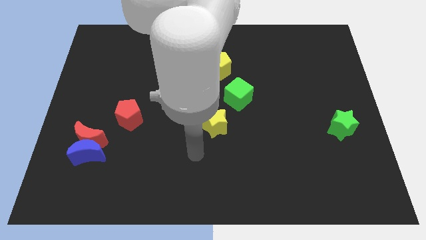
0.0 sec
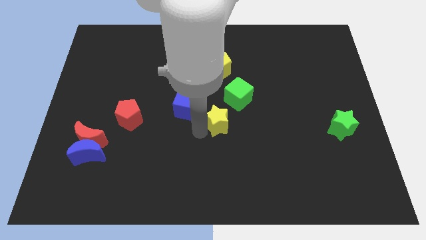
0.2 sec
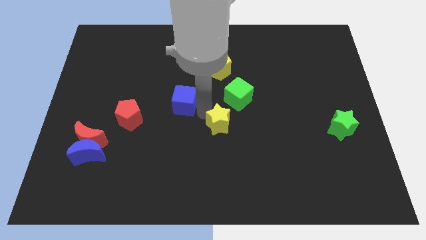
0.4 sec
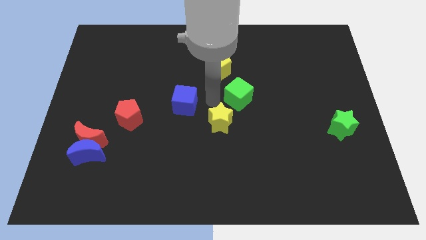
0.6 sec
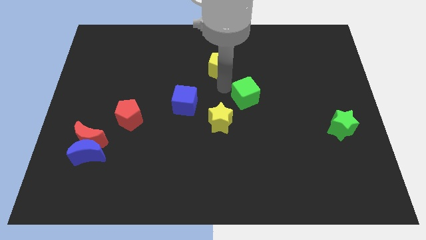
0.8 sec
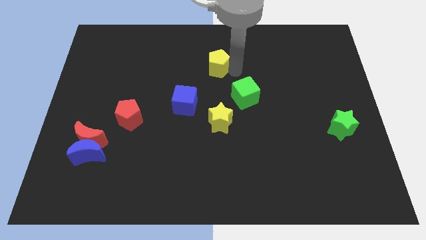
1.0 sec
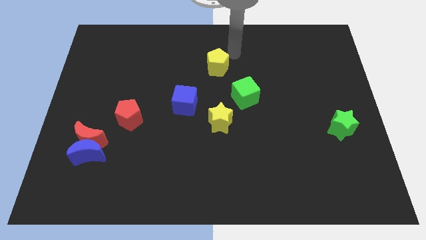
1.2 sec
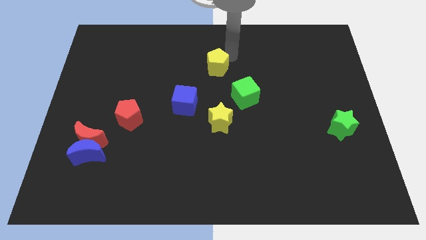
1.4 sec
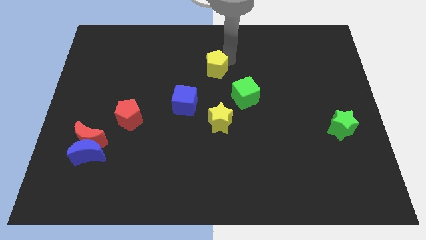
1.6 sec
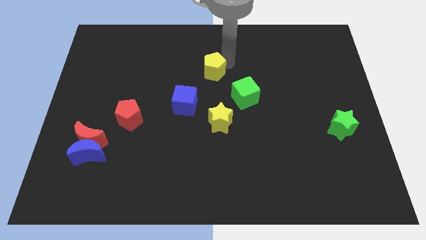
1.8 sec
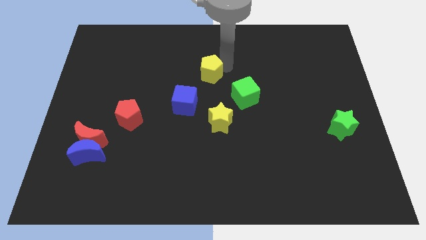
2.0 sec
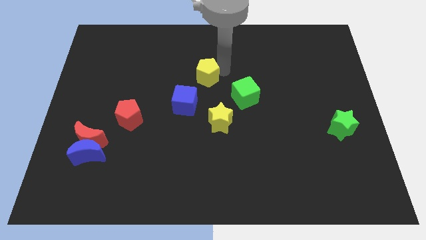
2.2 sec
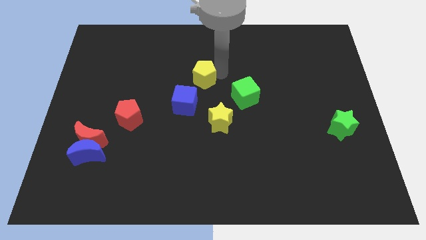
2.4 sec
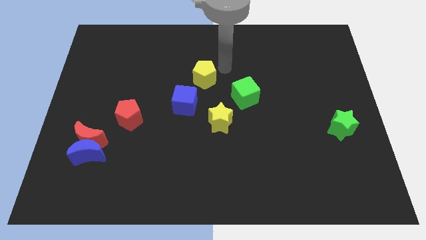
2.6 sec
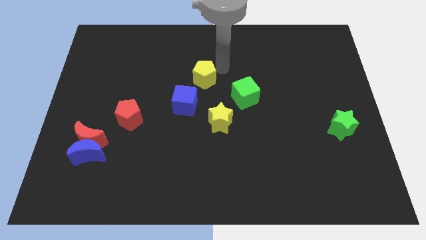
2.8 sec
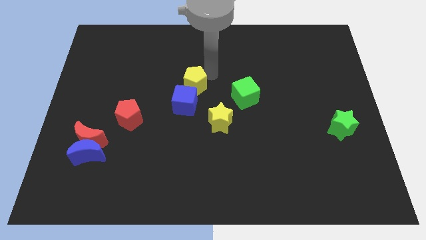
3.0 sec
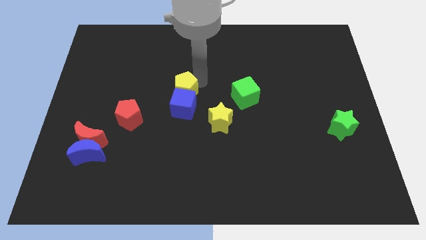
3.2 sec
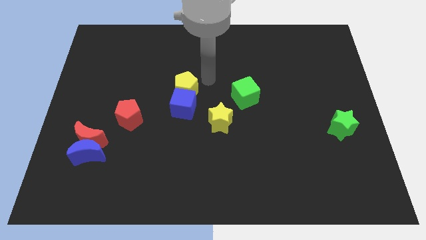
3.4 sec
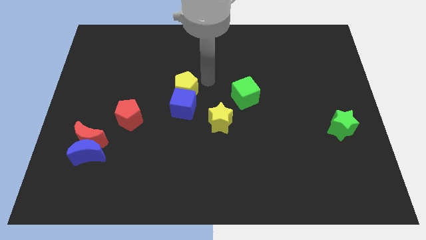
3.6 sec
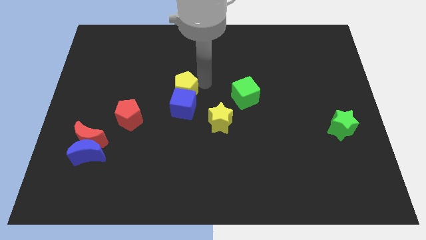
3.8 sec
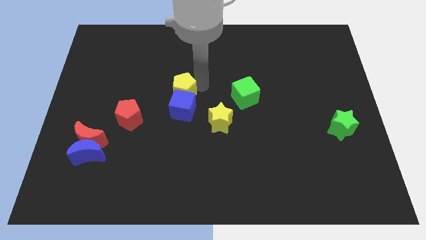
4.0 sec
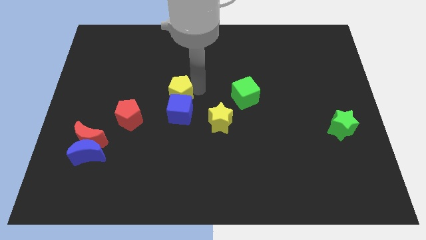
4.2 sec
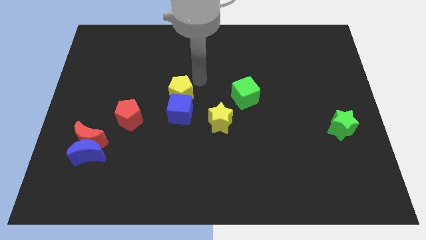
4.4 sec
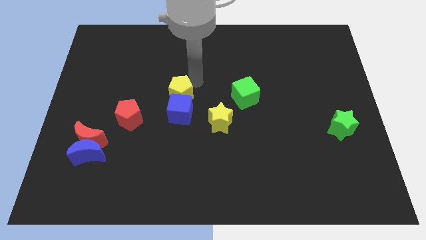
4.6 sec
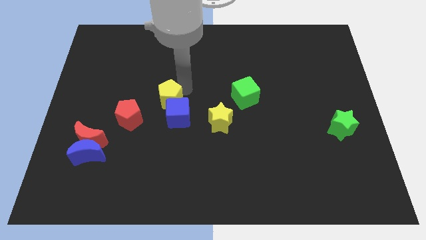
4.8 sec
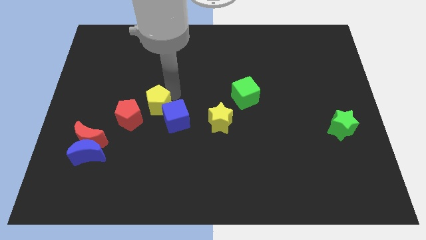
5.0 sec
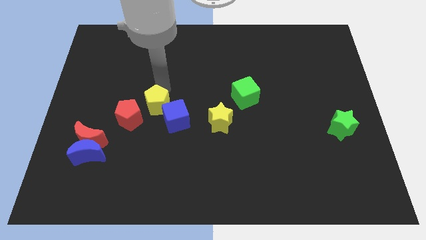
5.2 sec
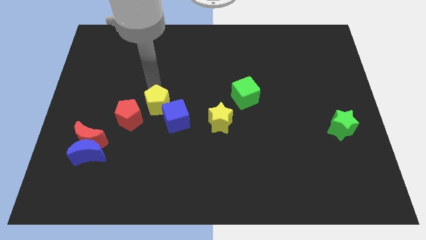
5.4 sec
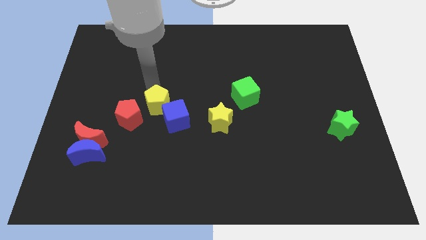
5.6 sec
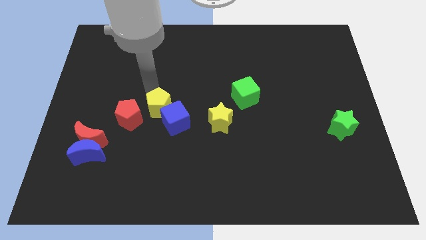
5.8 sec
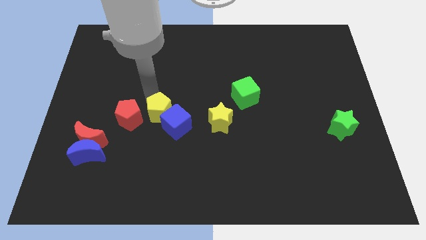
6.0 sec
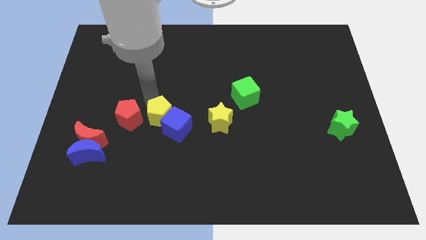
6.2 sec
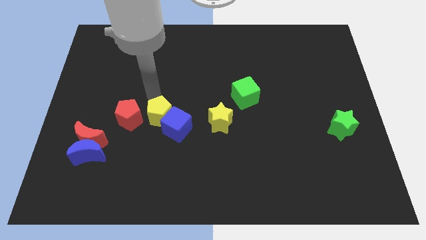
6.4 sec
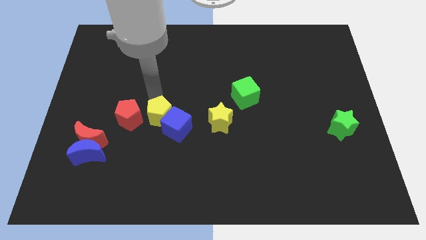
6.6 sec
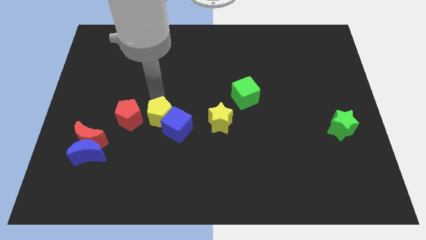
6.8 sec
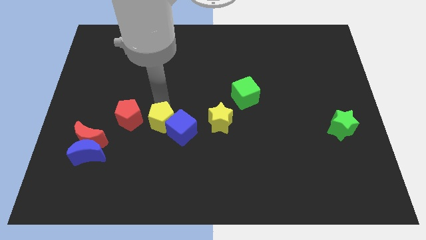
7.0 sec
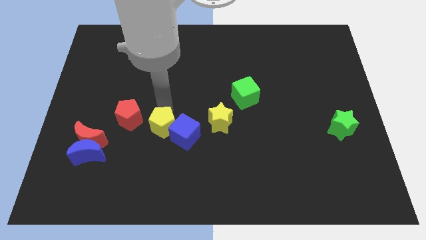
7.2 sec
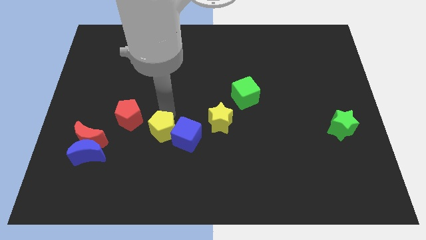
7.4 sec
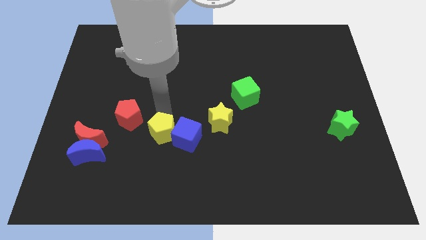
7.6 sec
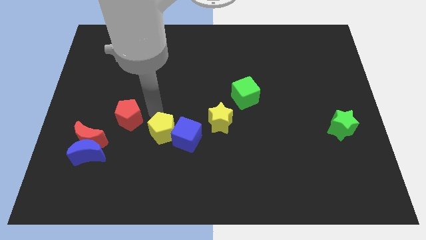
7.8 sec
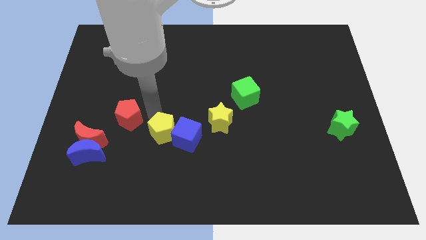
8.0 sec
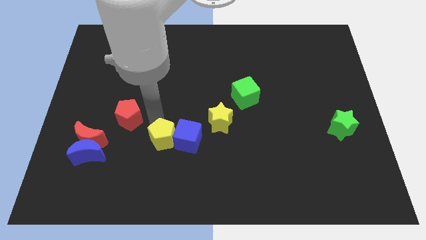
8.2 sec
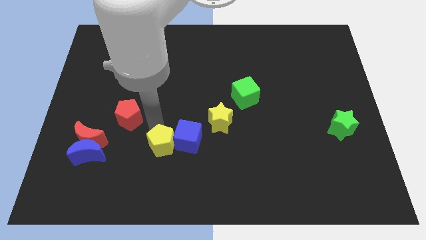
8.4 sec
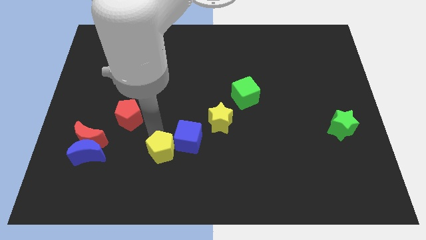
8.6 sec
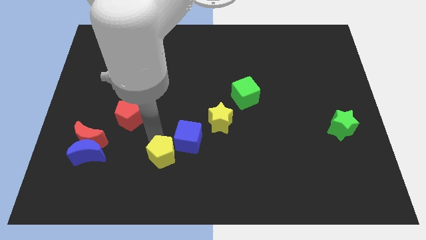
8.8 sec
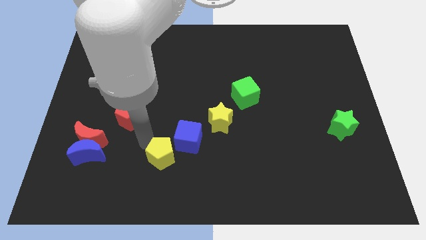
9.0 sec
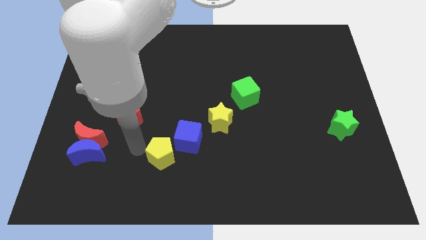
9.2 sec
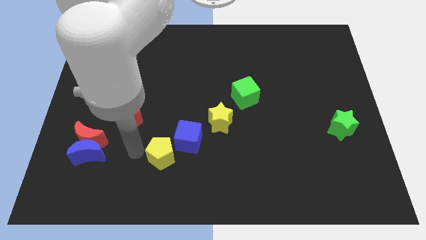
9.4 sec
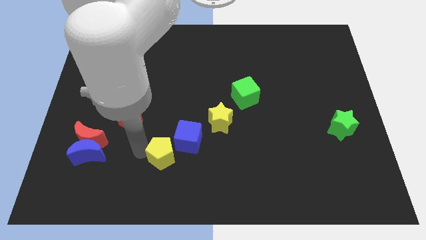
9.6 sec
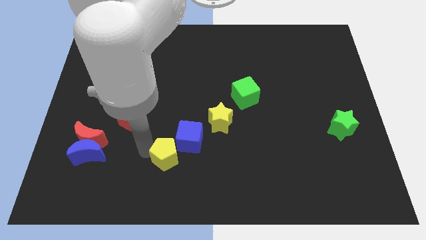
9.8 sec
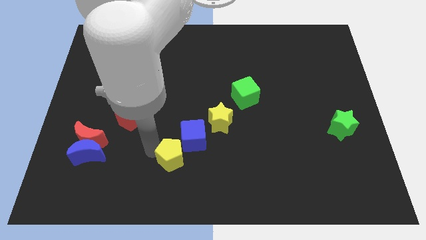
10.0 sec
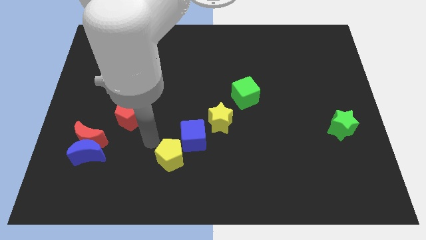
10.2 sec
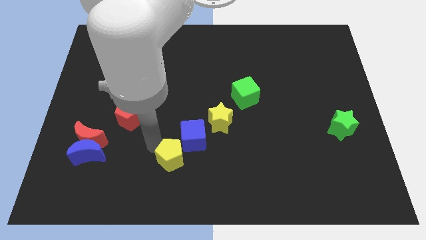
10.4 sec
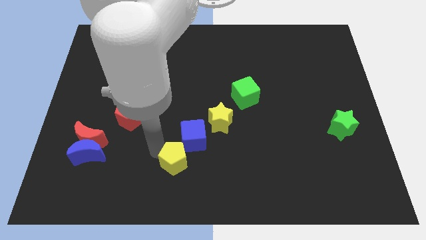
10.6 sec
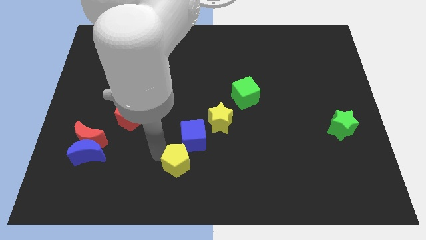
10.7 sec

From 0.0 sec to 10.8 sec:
slide the yellow pentagon to the bottom side

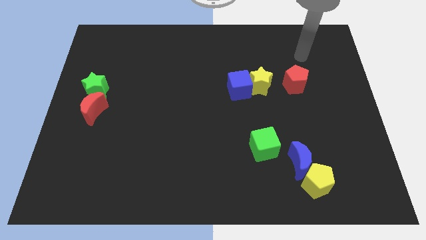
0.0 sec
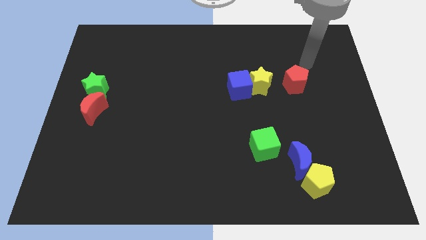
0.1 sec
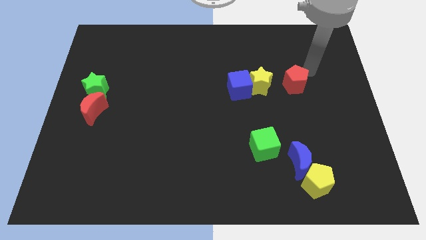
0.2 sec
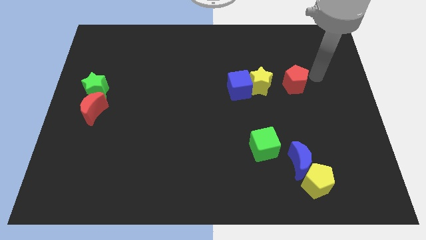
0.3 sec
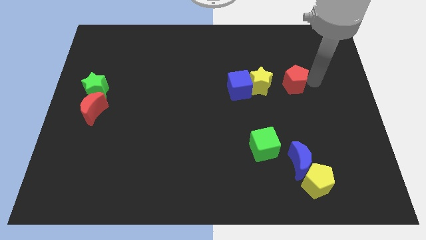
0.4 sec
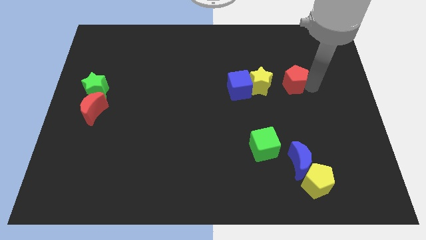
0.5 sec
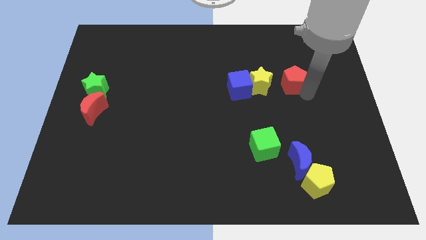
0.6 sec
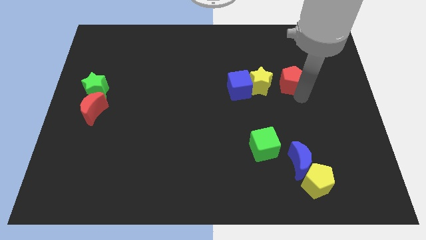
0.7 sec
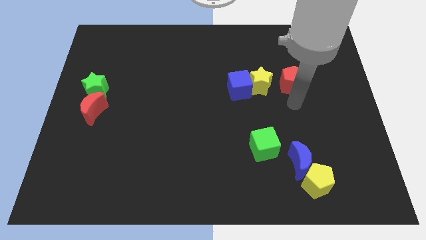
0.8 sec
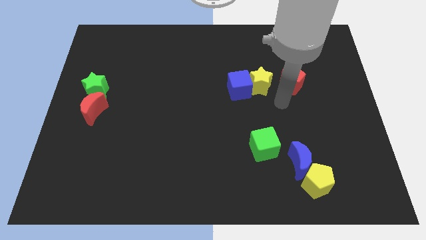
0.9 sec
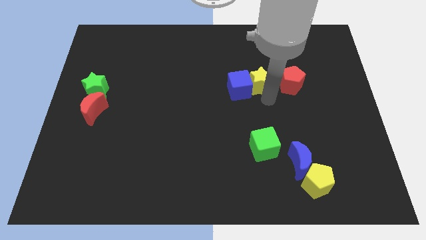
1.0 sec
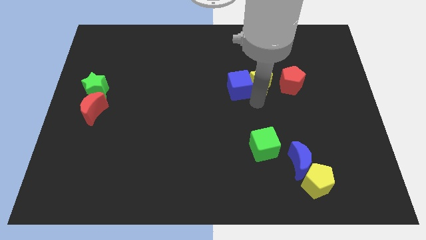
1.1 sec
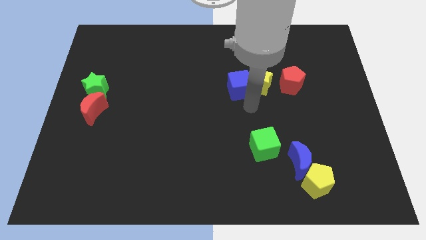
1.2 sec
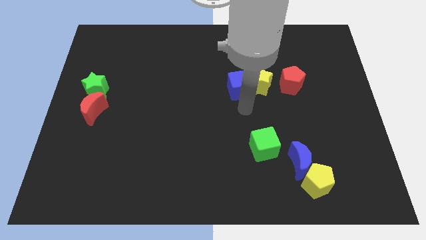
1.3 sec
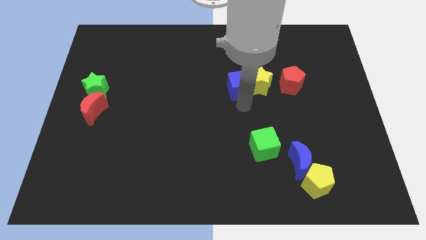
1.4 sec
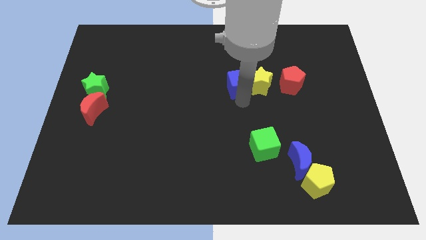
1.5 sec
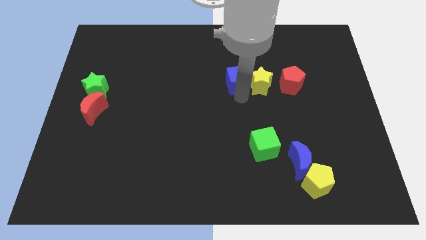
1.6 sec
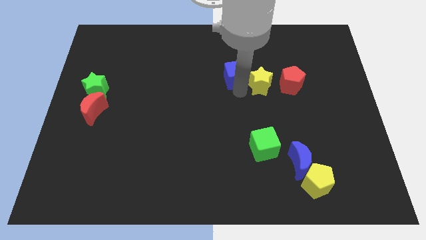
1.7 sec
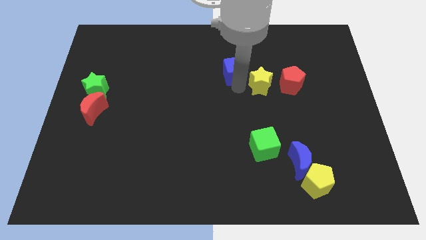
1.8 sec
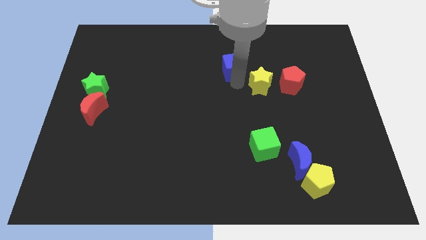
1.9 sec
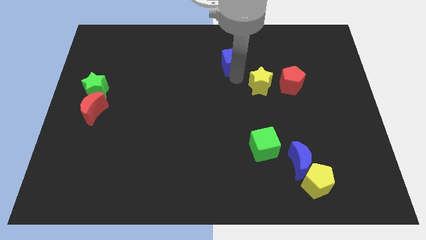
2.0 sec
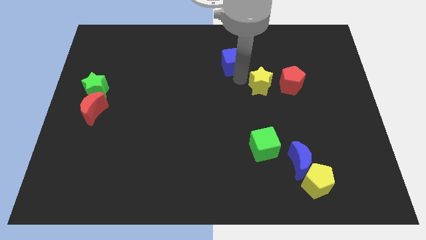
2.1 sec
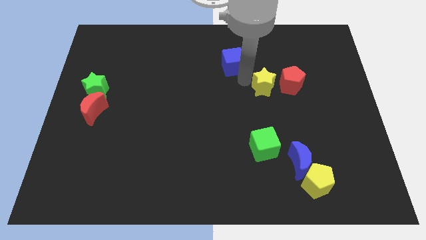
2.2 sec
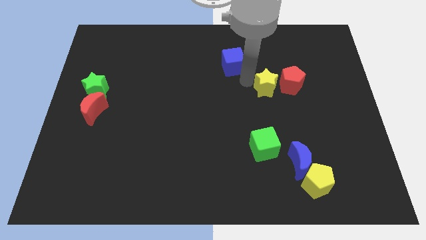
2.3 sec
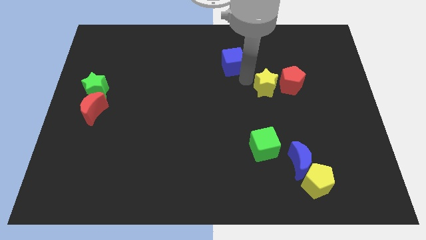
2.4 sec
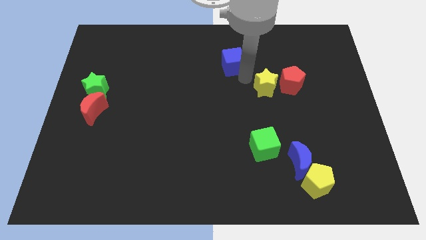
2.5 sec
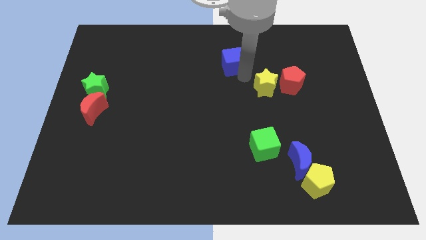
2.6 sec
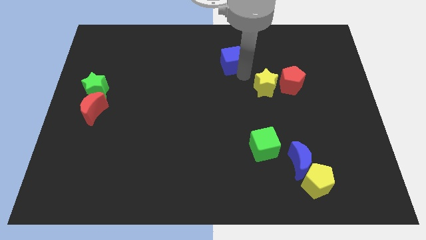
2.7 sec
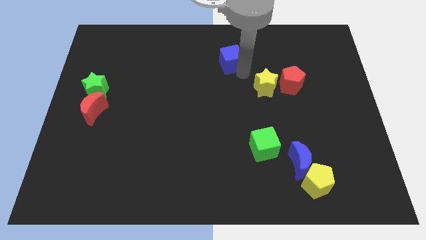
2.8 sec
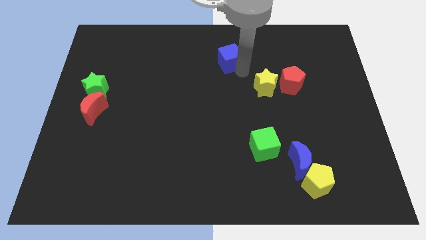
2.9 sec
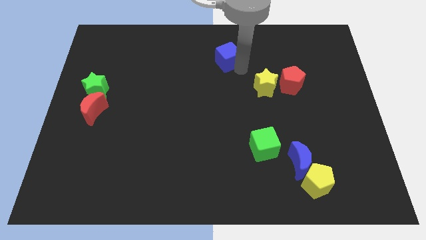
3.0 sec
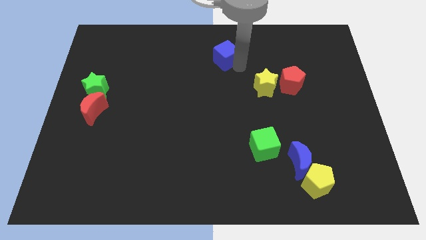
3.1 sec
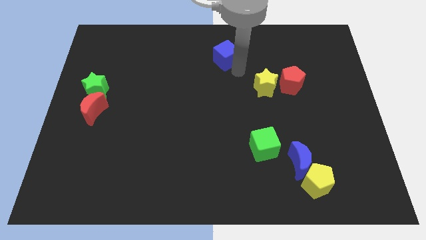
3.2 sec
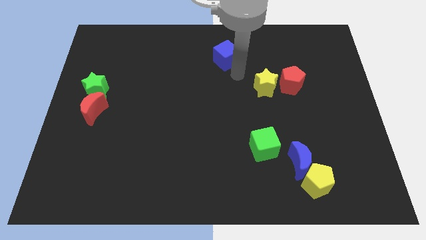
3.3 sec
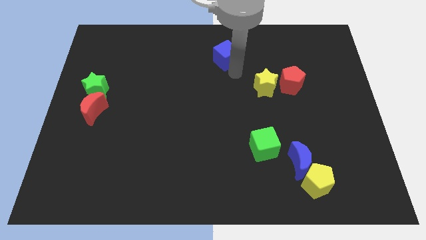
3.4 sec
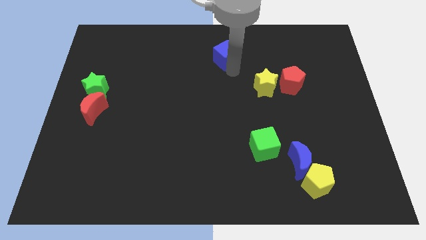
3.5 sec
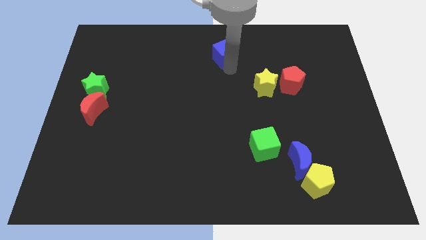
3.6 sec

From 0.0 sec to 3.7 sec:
push the blue cube to the top
